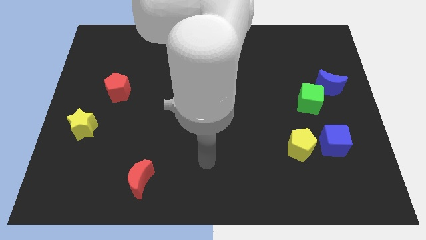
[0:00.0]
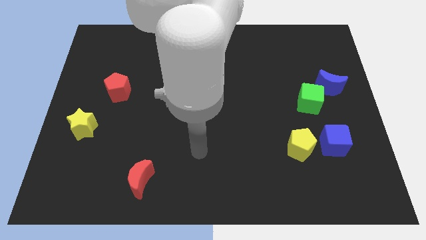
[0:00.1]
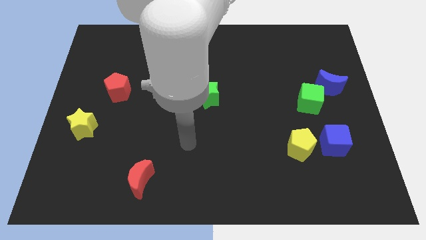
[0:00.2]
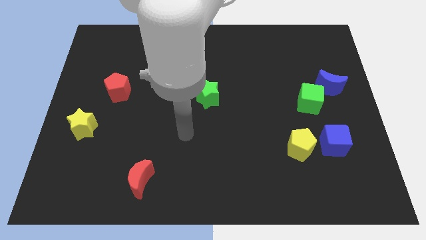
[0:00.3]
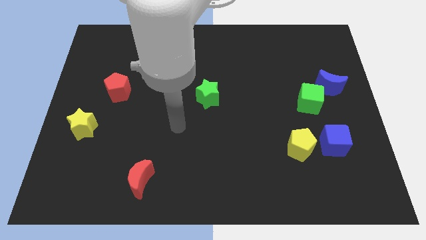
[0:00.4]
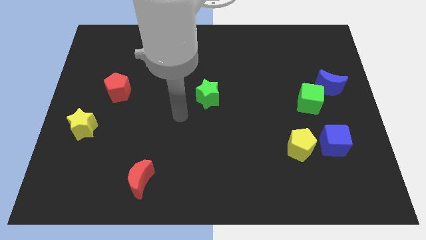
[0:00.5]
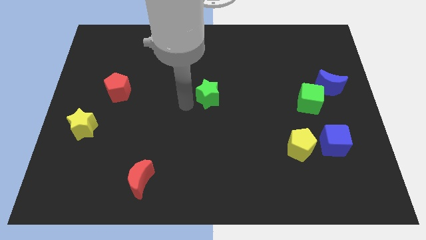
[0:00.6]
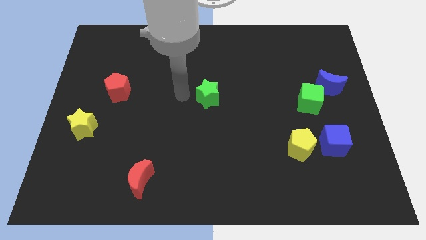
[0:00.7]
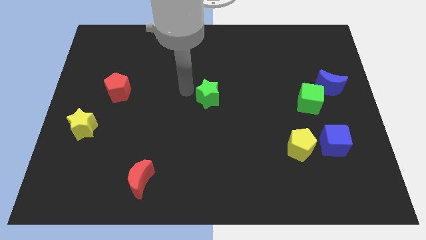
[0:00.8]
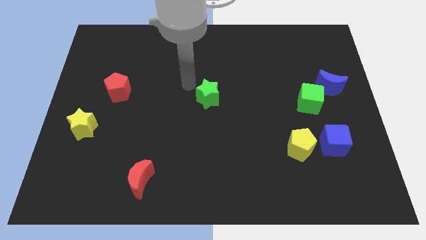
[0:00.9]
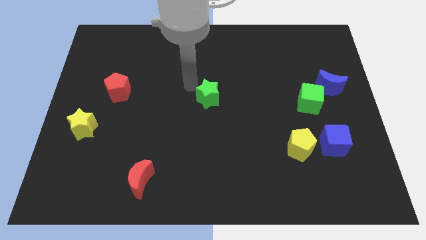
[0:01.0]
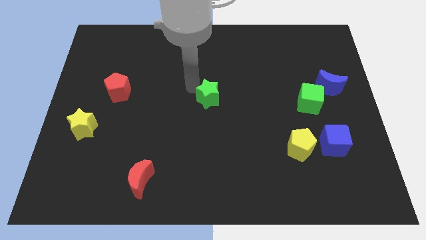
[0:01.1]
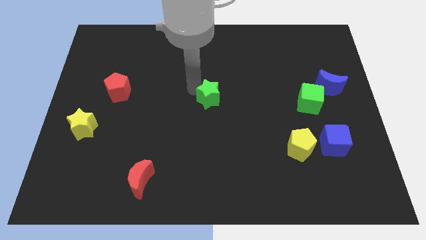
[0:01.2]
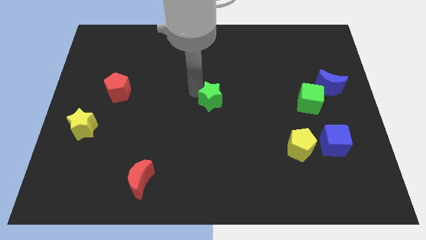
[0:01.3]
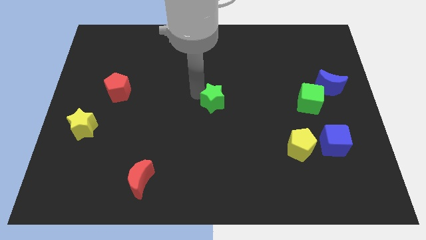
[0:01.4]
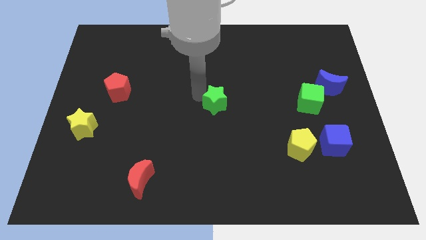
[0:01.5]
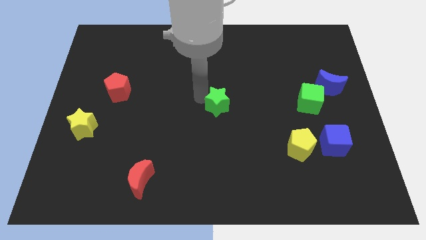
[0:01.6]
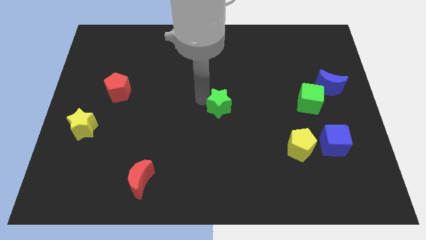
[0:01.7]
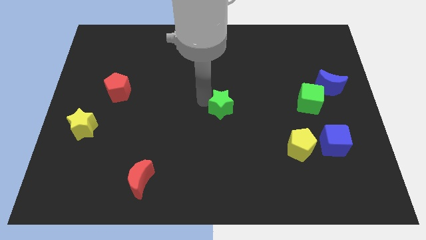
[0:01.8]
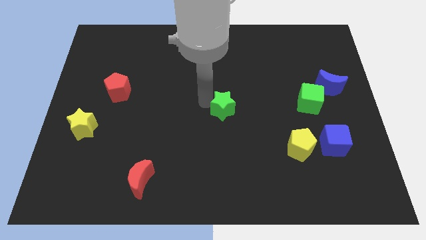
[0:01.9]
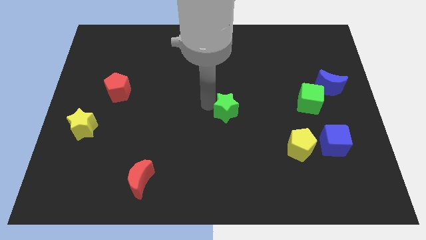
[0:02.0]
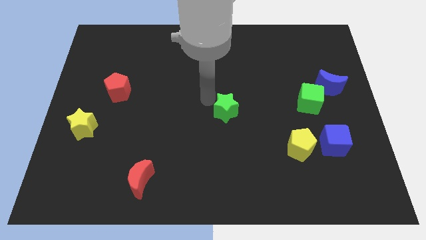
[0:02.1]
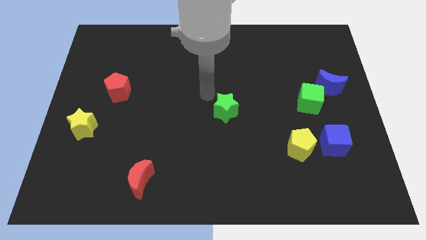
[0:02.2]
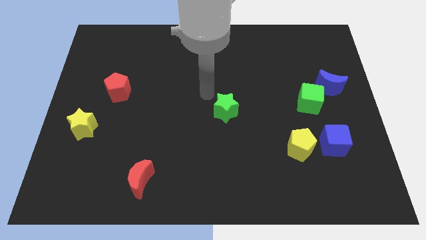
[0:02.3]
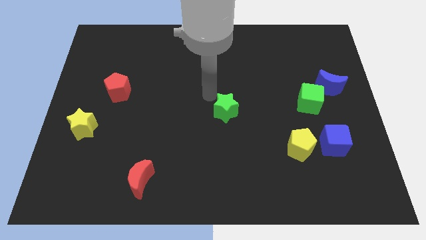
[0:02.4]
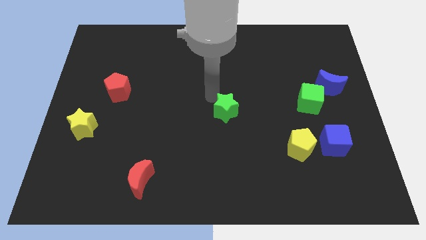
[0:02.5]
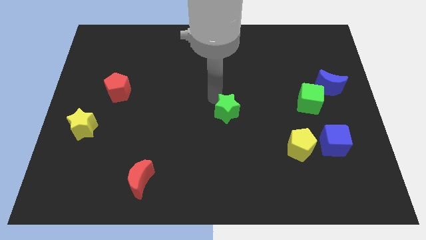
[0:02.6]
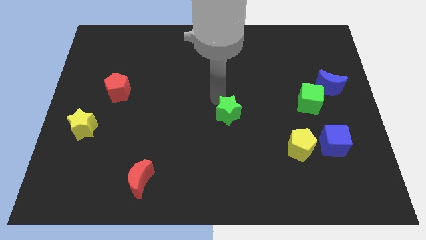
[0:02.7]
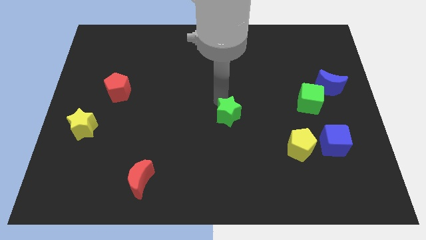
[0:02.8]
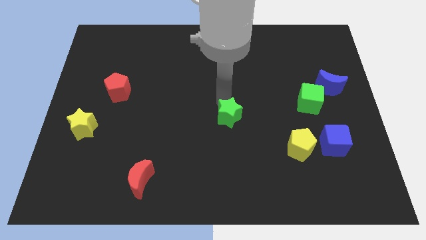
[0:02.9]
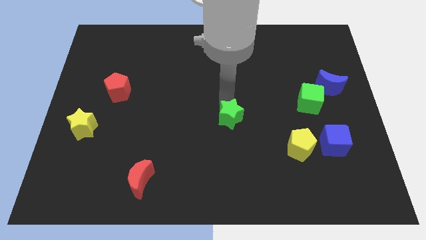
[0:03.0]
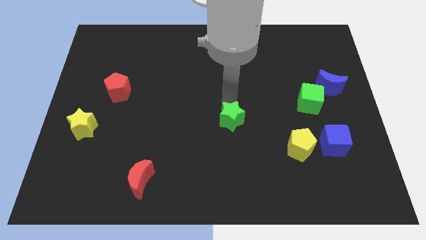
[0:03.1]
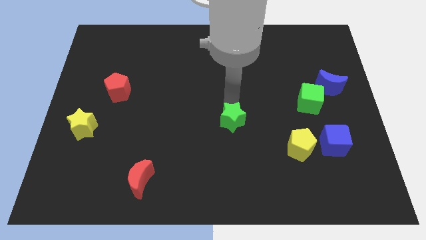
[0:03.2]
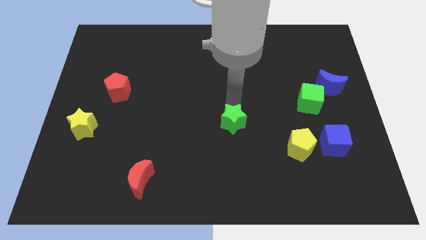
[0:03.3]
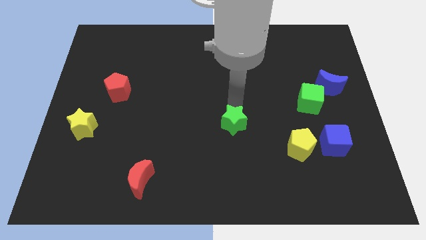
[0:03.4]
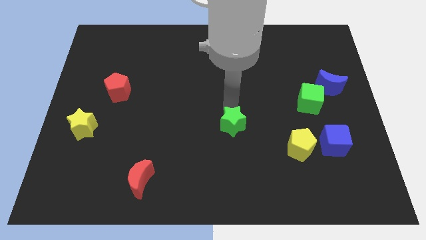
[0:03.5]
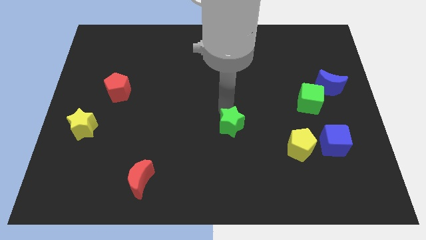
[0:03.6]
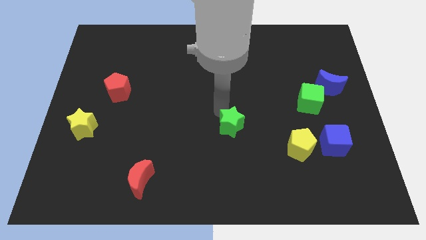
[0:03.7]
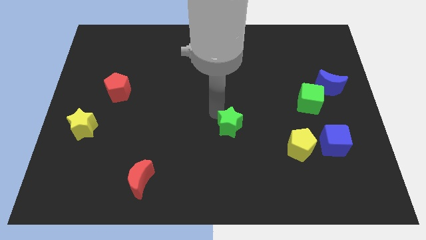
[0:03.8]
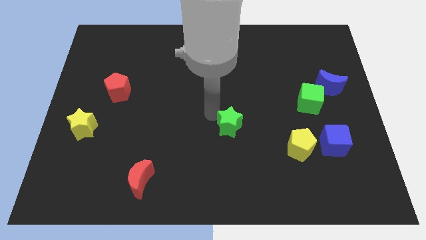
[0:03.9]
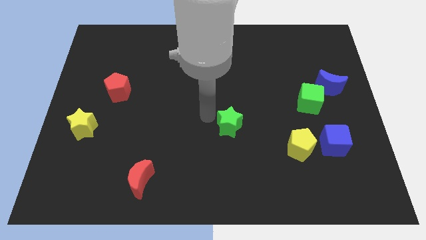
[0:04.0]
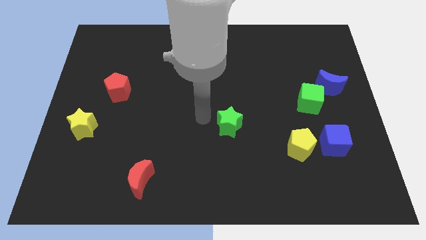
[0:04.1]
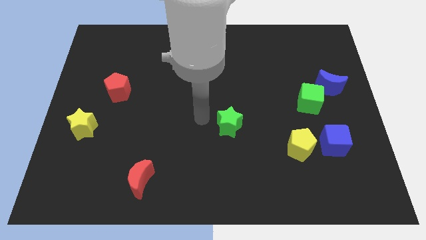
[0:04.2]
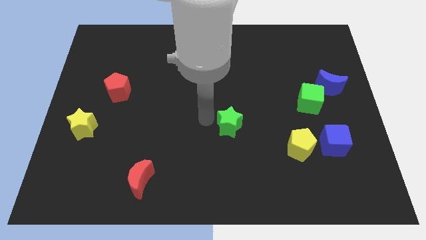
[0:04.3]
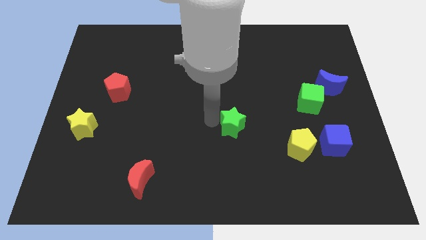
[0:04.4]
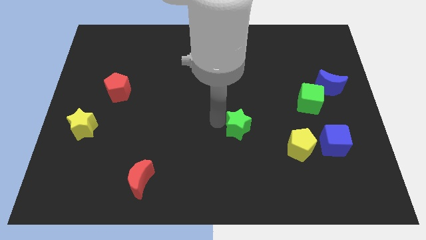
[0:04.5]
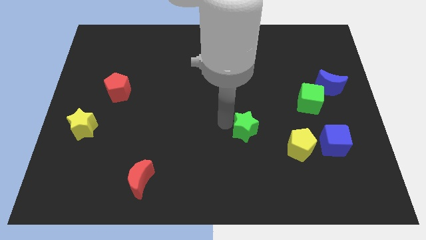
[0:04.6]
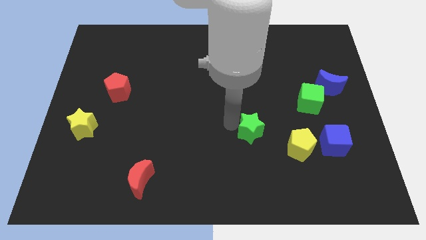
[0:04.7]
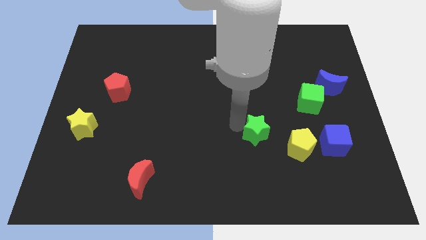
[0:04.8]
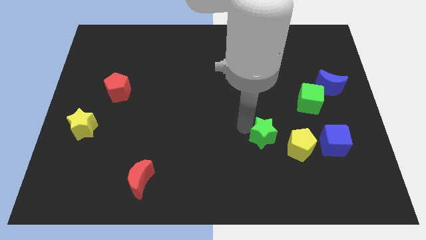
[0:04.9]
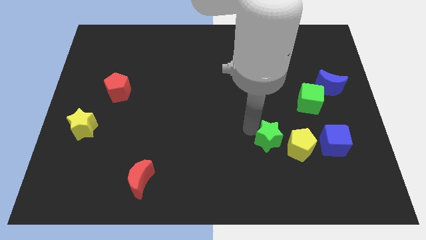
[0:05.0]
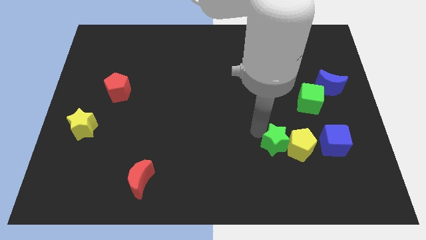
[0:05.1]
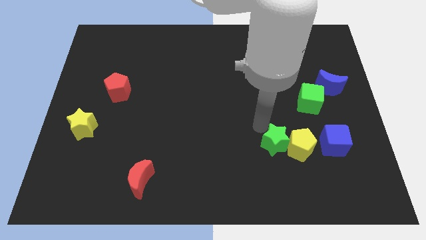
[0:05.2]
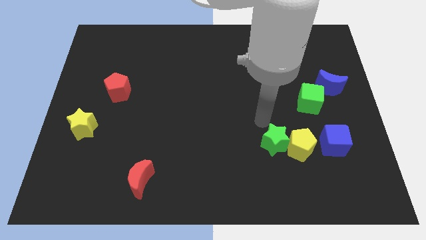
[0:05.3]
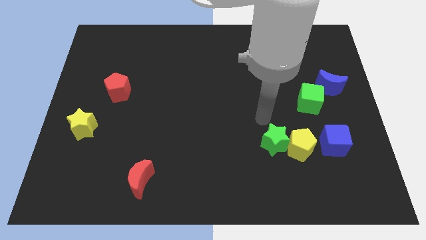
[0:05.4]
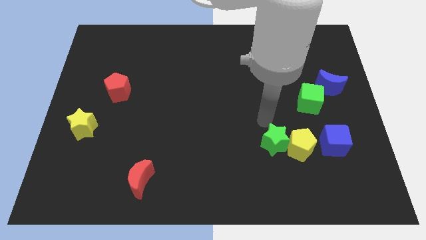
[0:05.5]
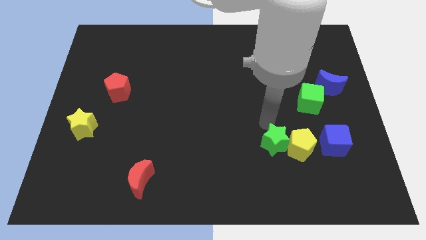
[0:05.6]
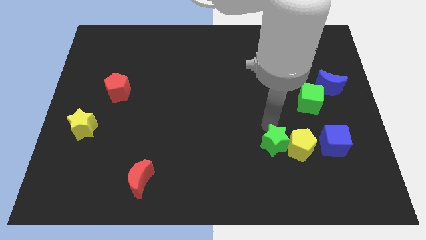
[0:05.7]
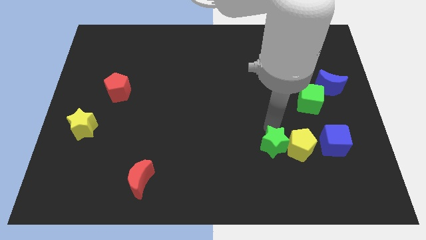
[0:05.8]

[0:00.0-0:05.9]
push the green star down and to the right diagonally

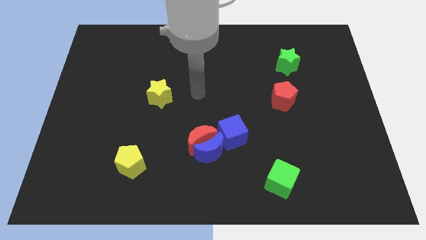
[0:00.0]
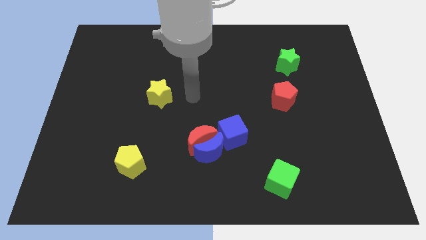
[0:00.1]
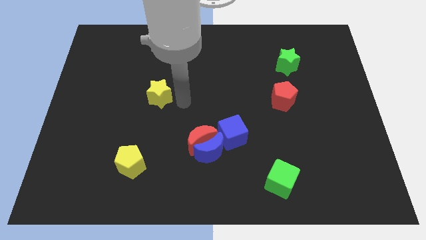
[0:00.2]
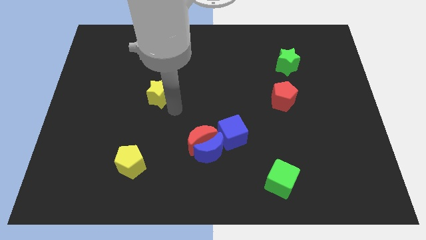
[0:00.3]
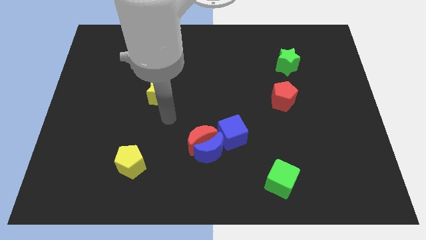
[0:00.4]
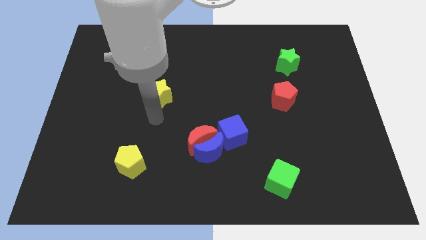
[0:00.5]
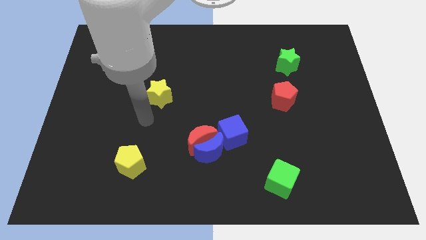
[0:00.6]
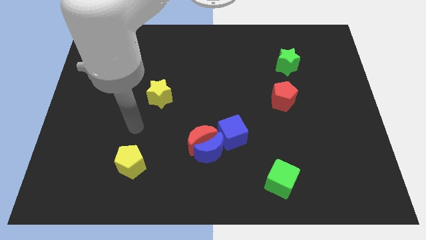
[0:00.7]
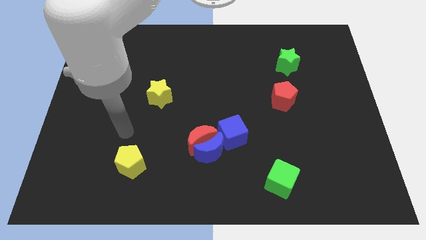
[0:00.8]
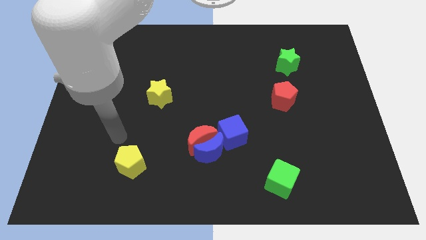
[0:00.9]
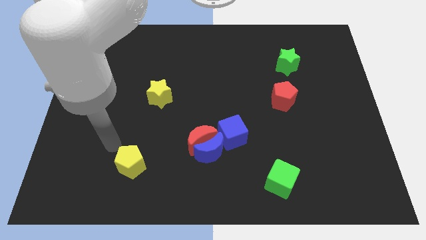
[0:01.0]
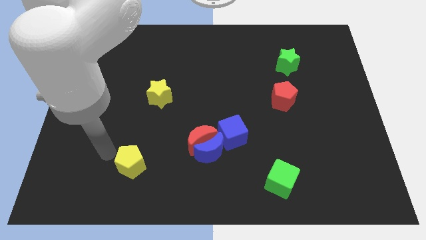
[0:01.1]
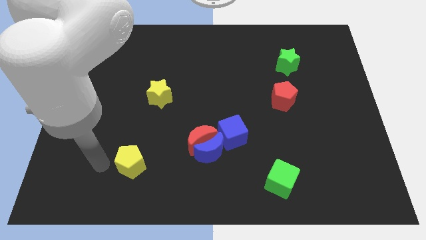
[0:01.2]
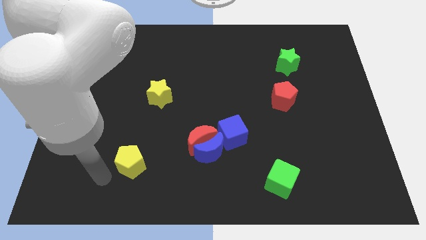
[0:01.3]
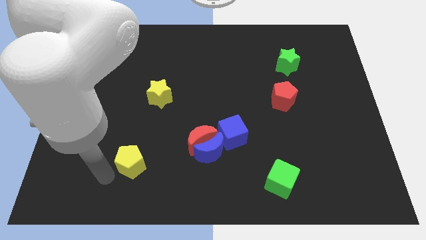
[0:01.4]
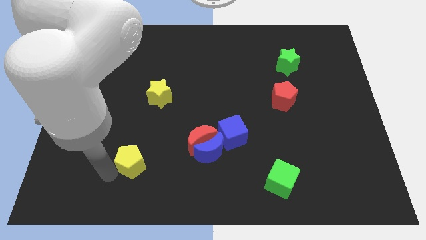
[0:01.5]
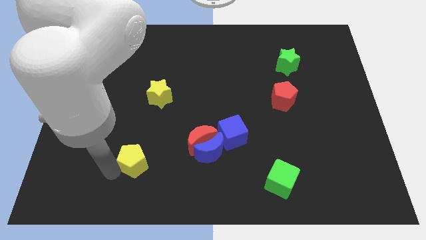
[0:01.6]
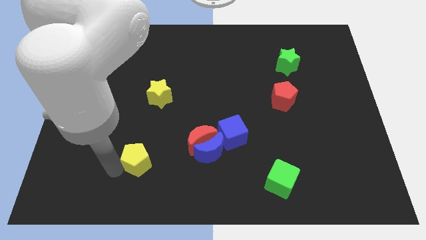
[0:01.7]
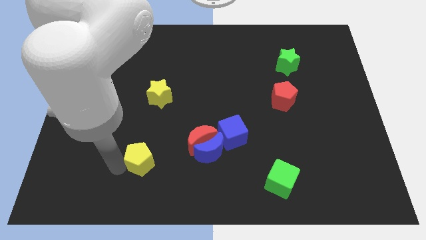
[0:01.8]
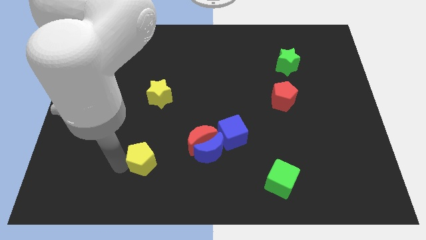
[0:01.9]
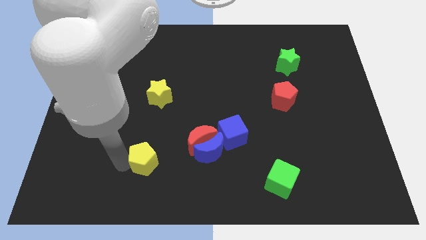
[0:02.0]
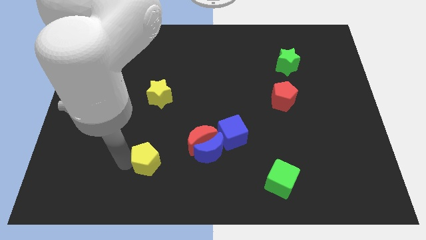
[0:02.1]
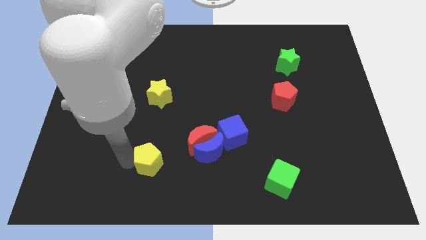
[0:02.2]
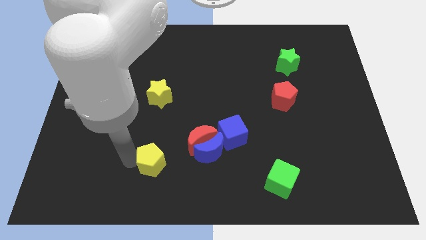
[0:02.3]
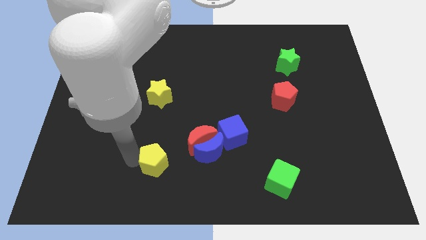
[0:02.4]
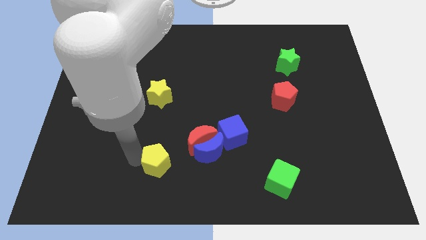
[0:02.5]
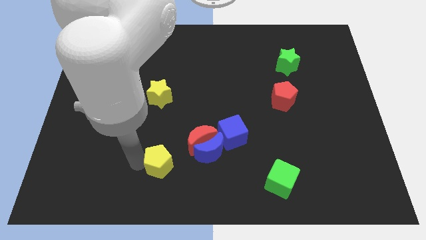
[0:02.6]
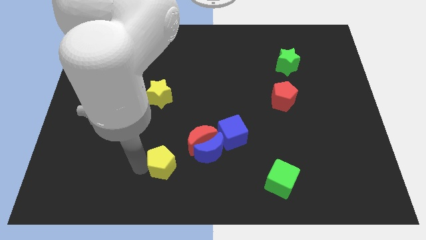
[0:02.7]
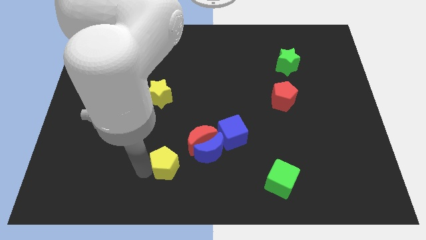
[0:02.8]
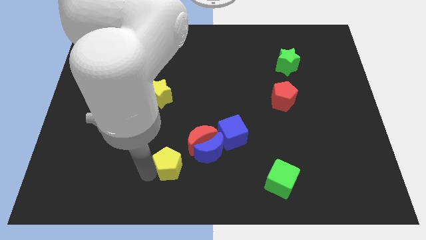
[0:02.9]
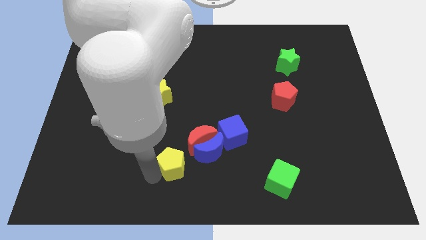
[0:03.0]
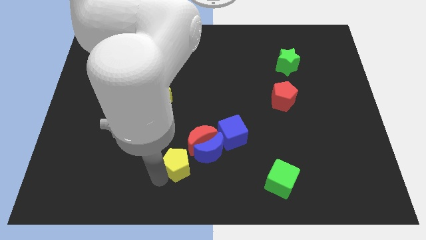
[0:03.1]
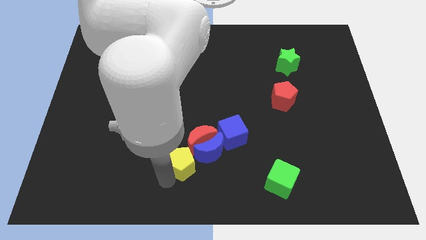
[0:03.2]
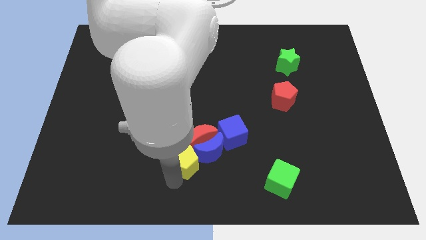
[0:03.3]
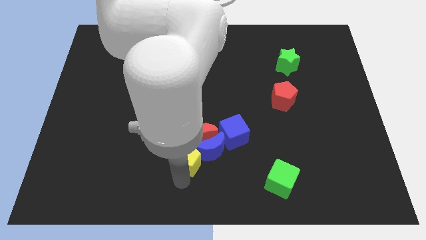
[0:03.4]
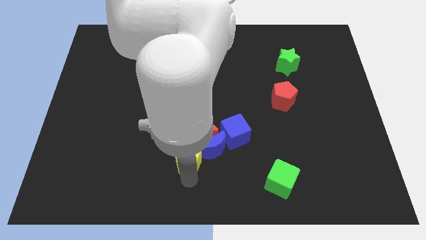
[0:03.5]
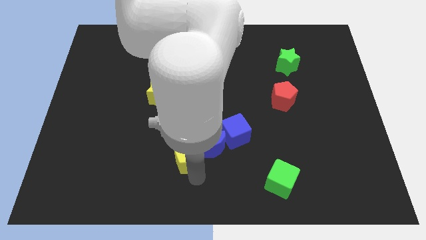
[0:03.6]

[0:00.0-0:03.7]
slide the yellow pentagon a little up and then right
